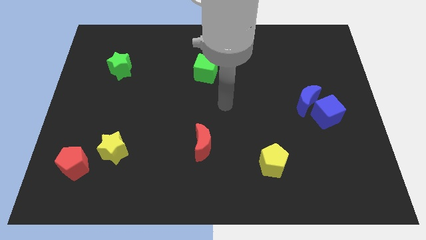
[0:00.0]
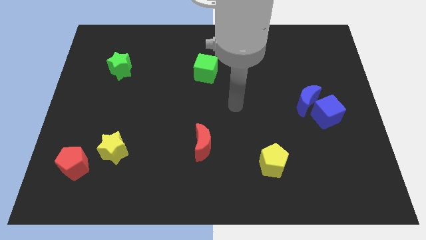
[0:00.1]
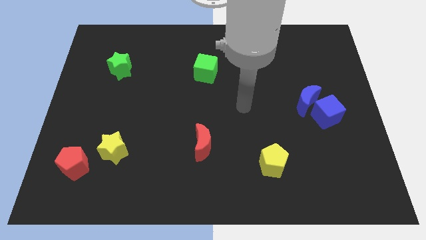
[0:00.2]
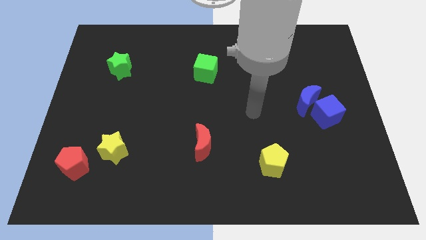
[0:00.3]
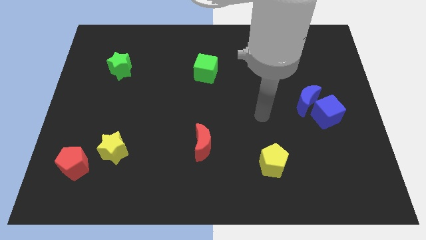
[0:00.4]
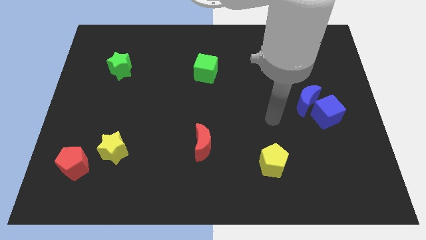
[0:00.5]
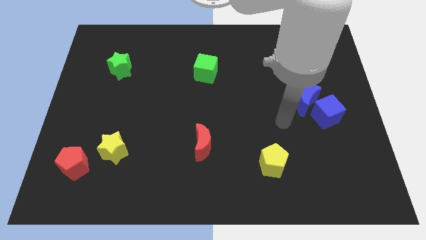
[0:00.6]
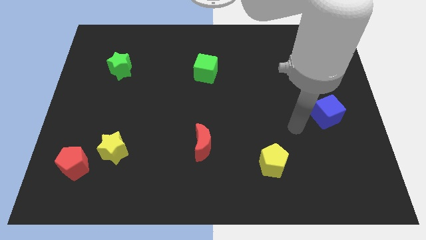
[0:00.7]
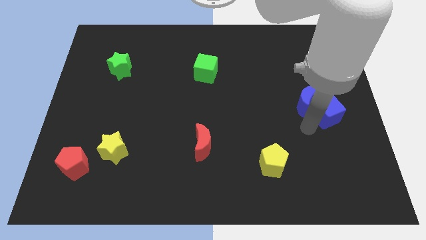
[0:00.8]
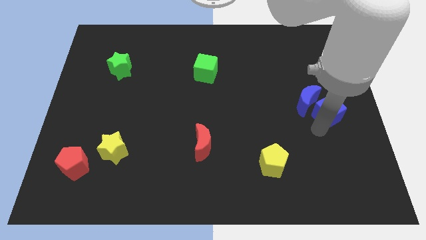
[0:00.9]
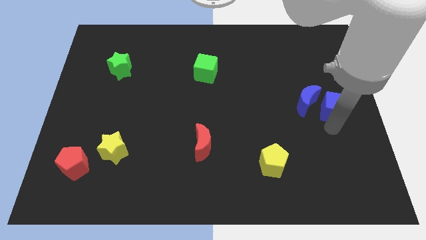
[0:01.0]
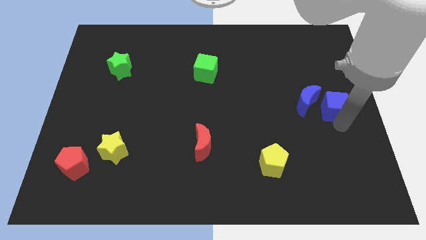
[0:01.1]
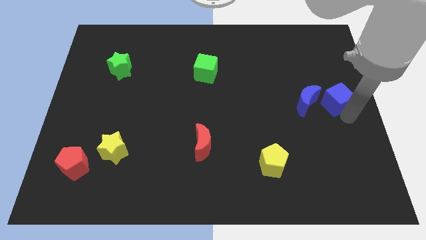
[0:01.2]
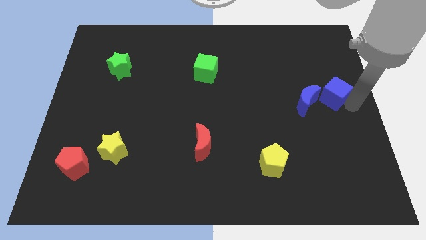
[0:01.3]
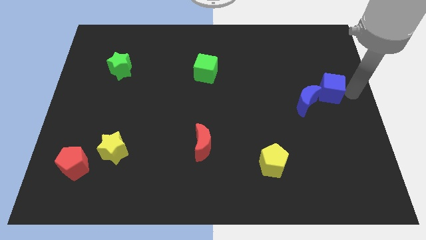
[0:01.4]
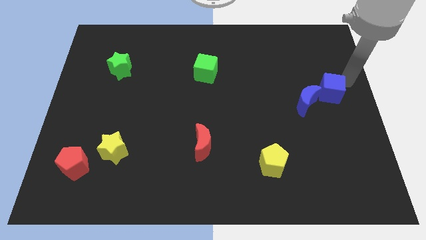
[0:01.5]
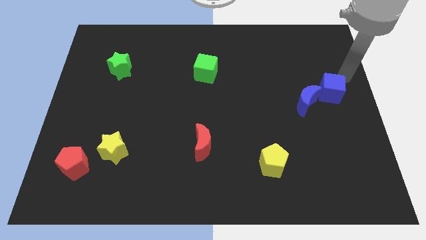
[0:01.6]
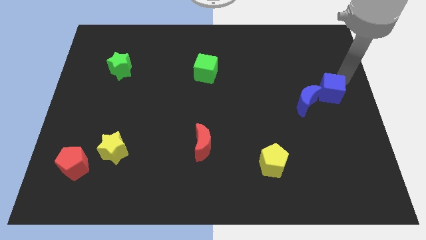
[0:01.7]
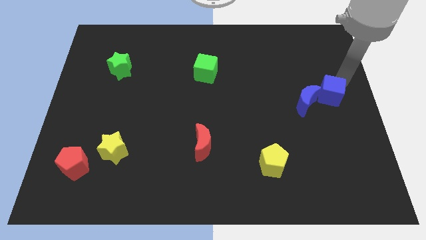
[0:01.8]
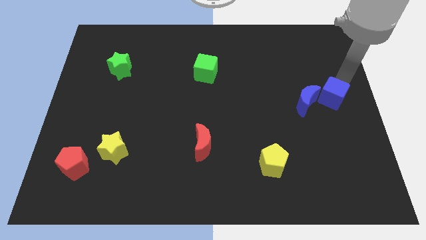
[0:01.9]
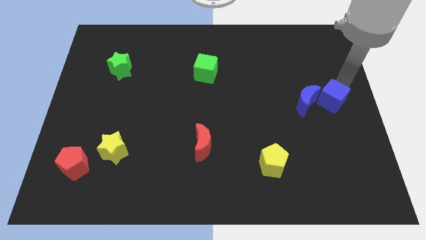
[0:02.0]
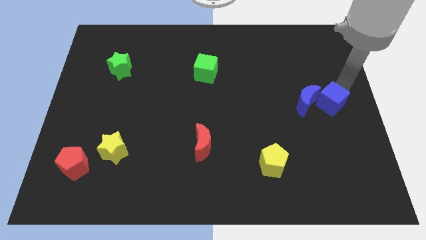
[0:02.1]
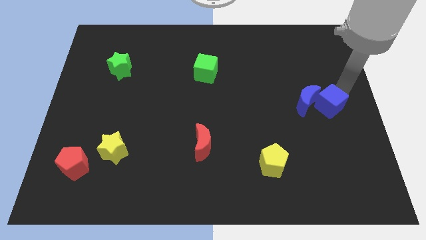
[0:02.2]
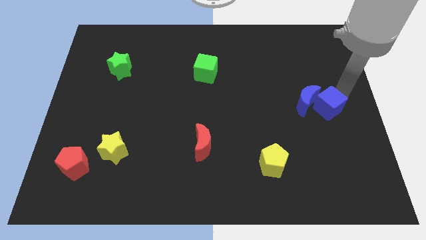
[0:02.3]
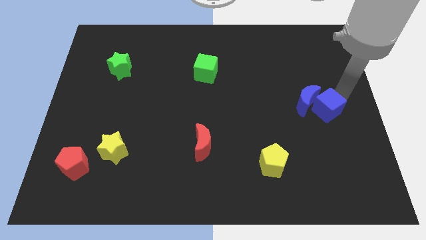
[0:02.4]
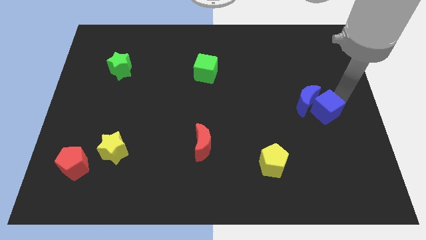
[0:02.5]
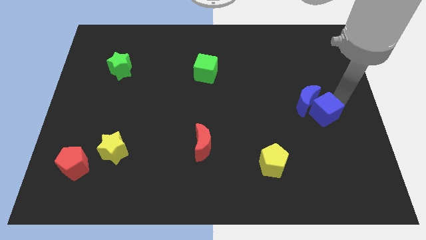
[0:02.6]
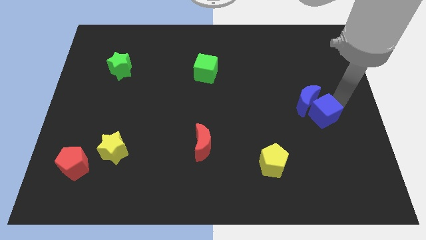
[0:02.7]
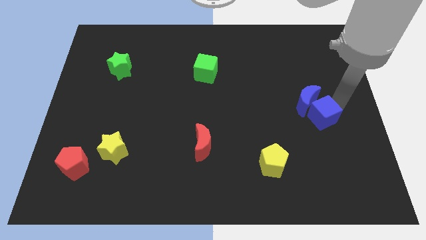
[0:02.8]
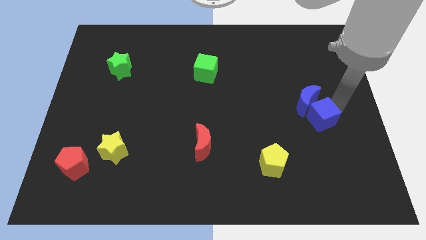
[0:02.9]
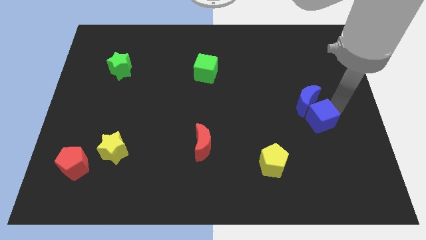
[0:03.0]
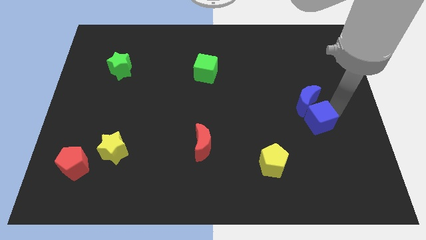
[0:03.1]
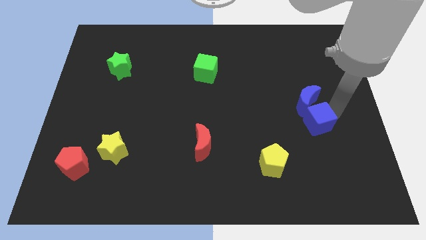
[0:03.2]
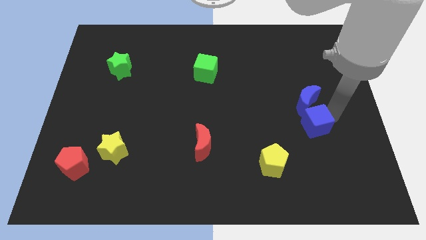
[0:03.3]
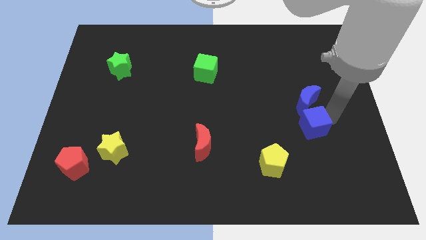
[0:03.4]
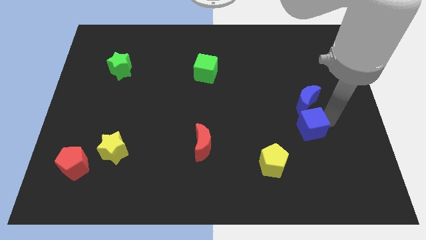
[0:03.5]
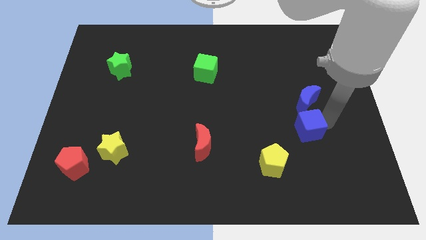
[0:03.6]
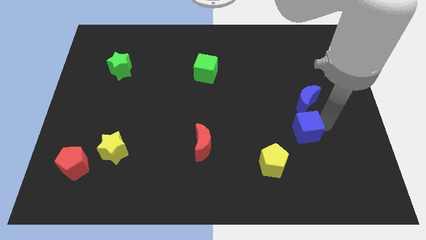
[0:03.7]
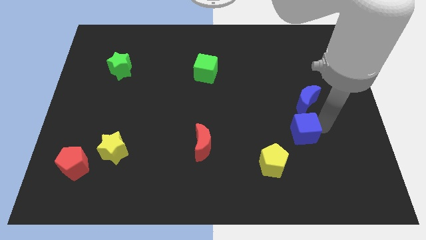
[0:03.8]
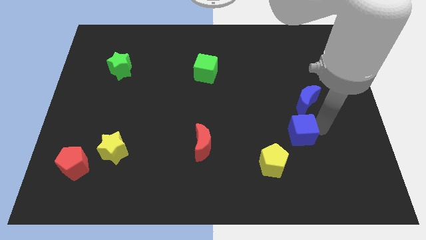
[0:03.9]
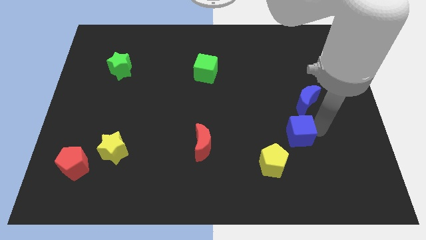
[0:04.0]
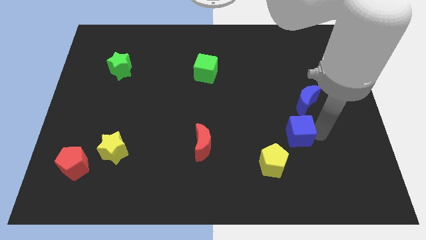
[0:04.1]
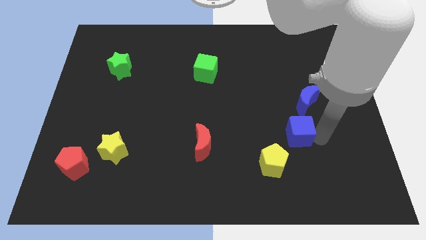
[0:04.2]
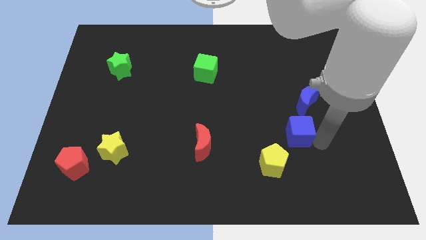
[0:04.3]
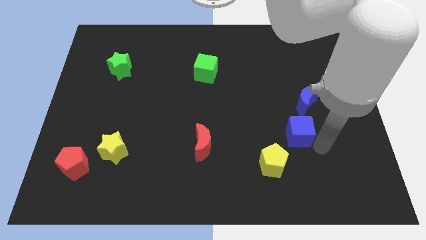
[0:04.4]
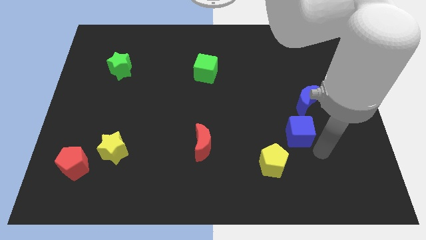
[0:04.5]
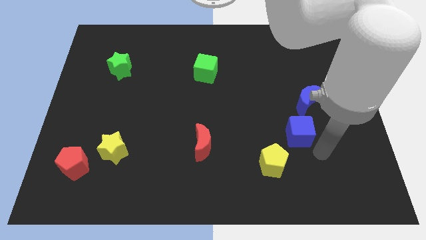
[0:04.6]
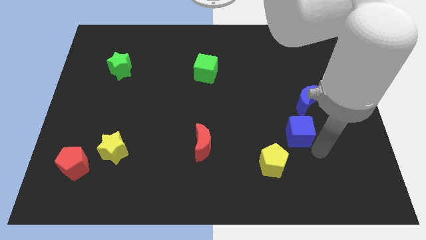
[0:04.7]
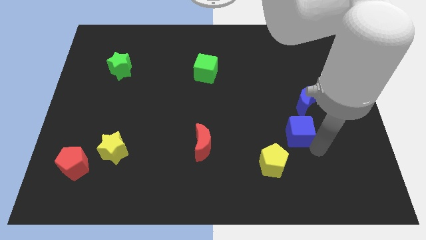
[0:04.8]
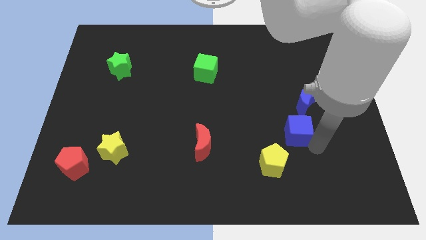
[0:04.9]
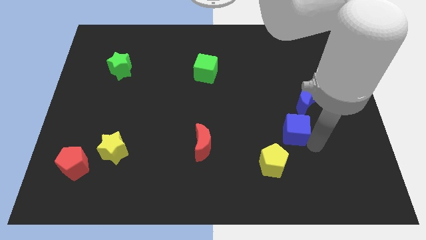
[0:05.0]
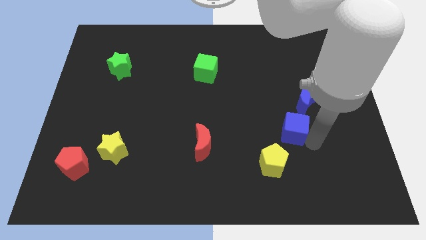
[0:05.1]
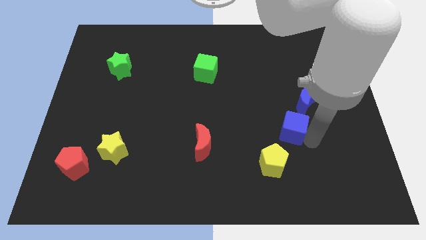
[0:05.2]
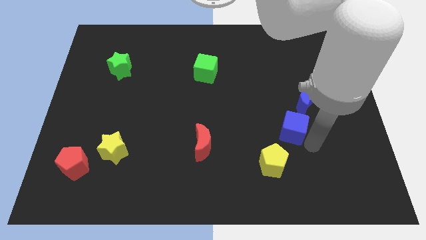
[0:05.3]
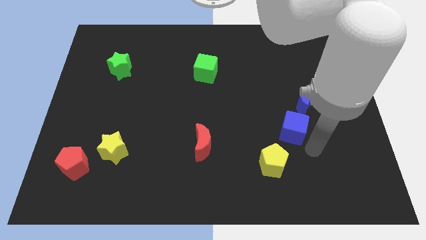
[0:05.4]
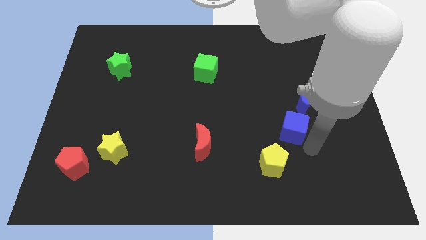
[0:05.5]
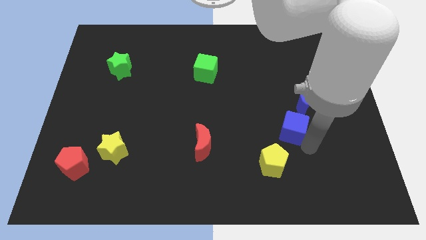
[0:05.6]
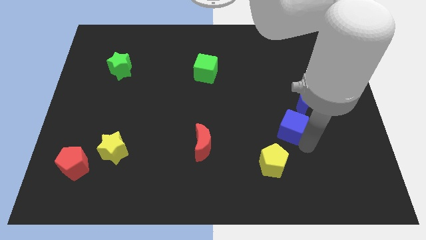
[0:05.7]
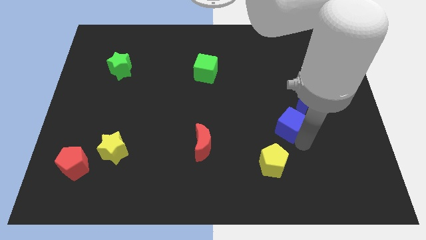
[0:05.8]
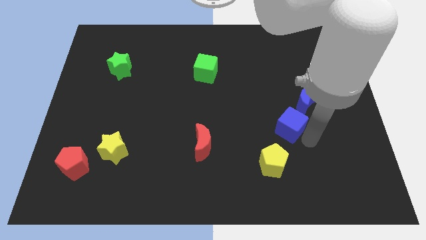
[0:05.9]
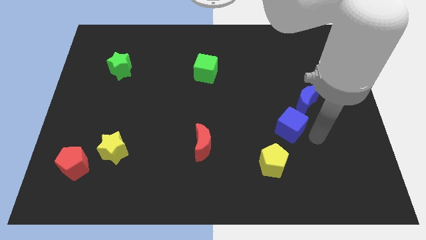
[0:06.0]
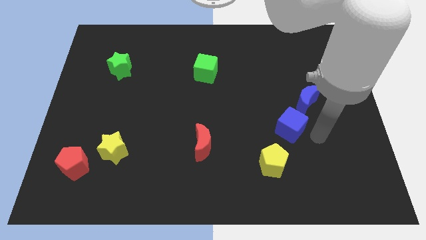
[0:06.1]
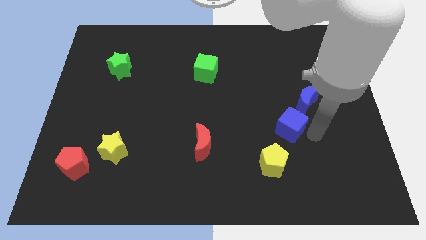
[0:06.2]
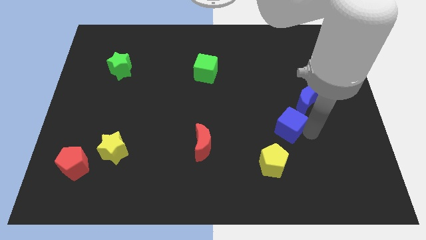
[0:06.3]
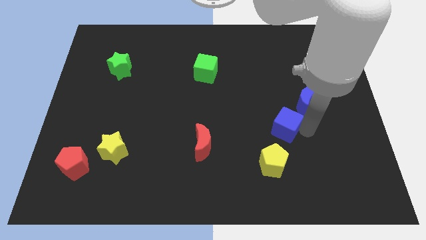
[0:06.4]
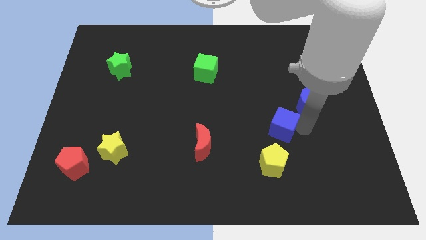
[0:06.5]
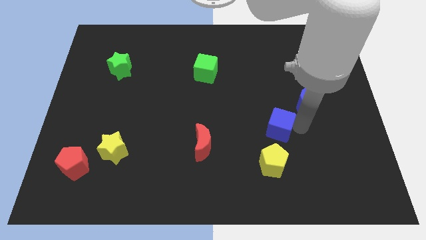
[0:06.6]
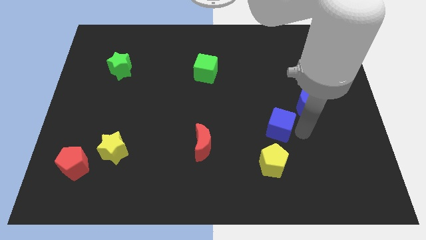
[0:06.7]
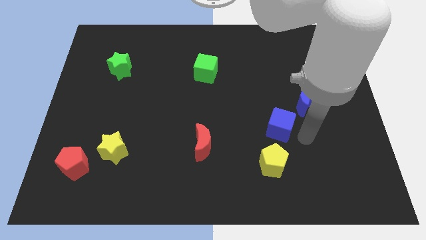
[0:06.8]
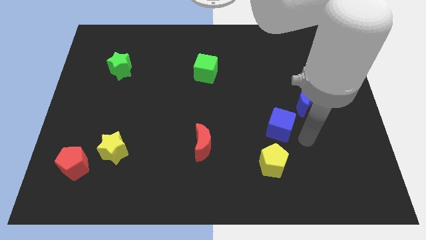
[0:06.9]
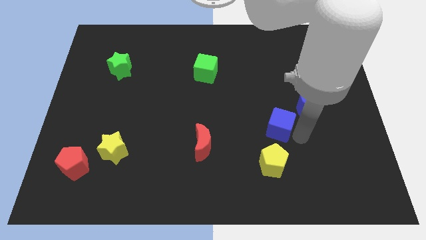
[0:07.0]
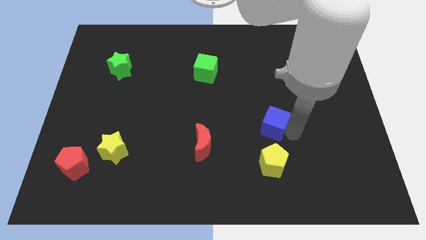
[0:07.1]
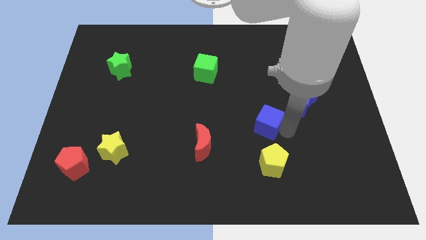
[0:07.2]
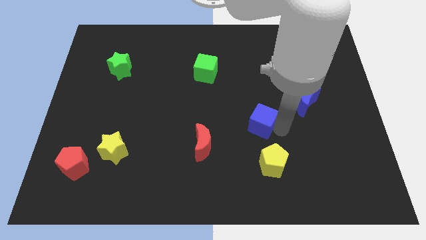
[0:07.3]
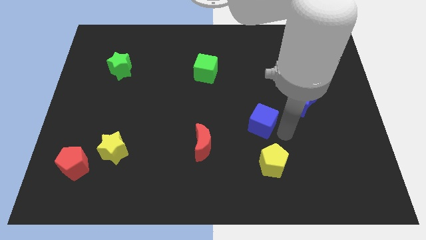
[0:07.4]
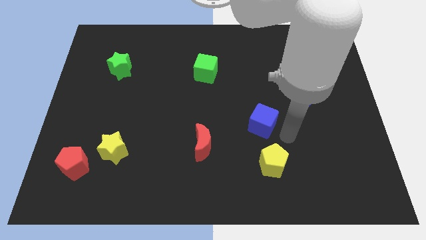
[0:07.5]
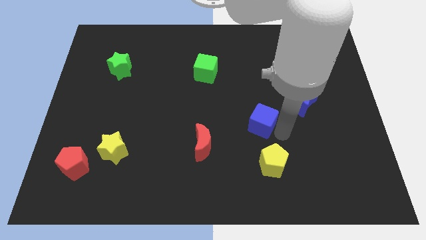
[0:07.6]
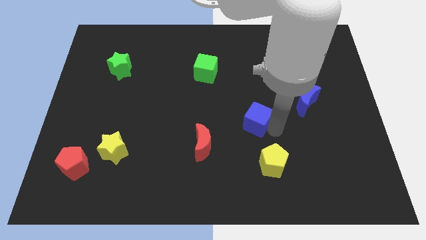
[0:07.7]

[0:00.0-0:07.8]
move the blue cube to the middle of the board
